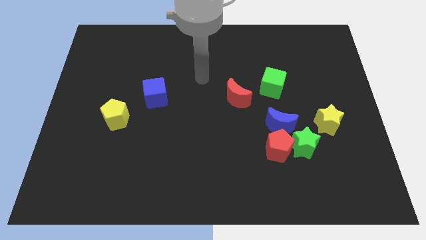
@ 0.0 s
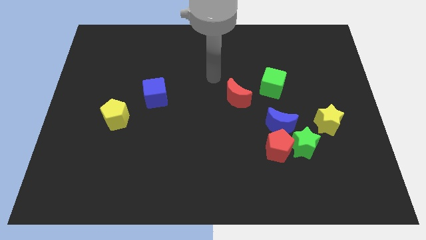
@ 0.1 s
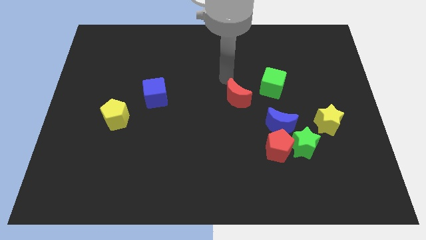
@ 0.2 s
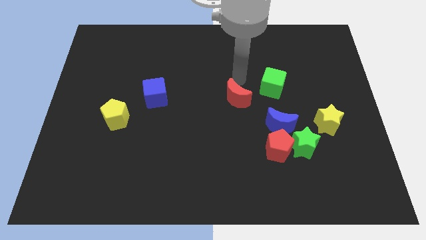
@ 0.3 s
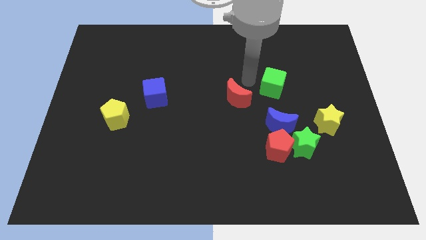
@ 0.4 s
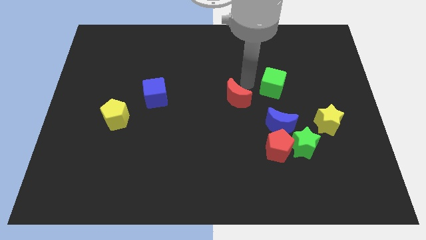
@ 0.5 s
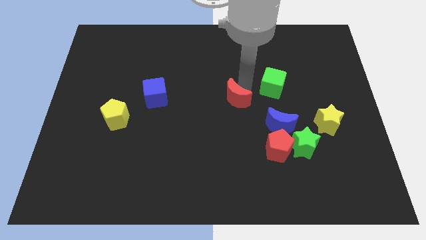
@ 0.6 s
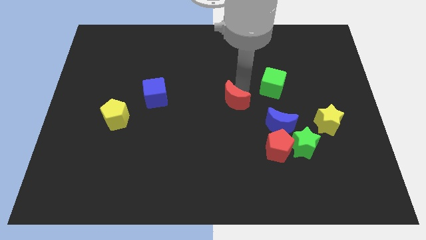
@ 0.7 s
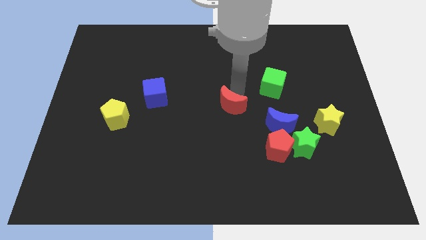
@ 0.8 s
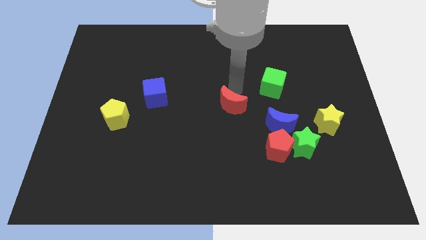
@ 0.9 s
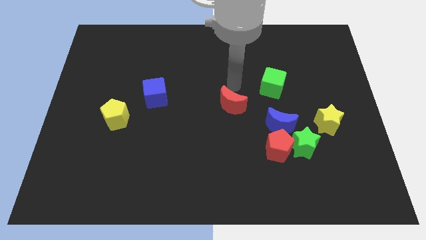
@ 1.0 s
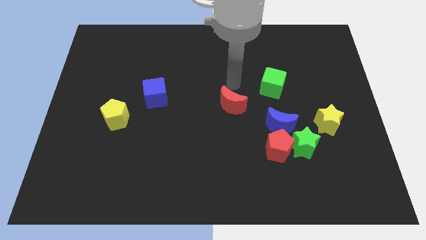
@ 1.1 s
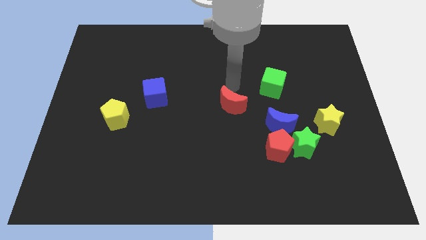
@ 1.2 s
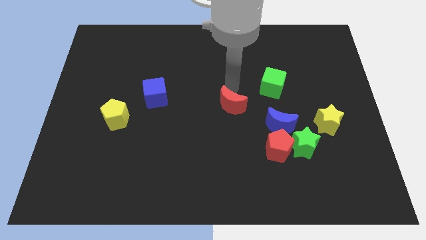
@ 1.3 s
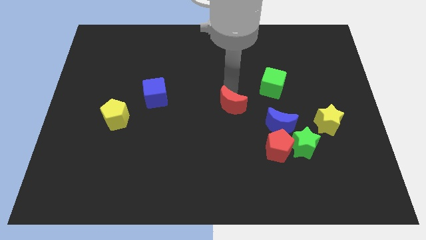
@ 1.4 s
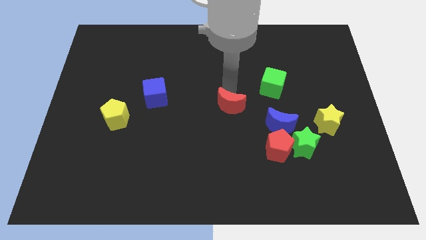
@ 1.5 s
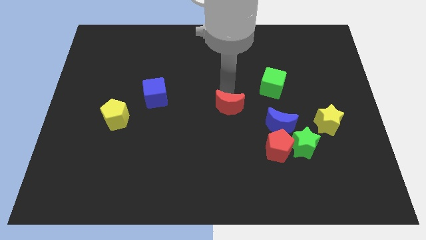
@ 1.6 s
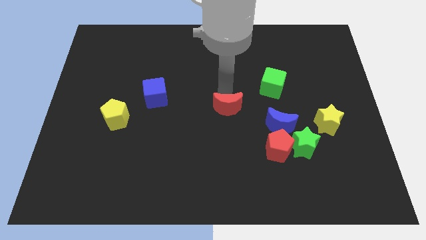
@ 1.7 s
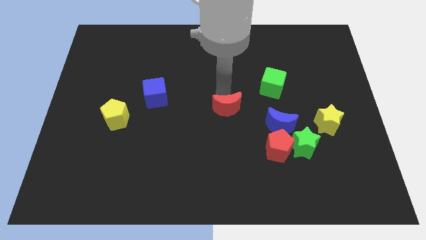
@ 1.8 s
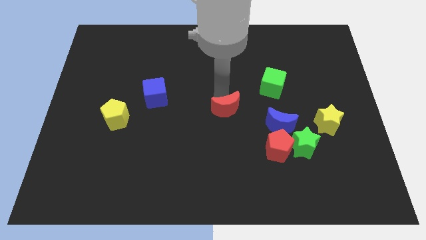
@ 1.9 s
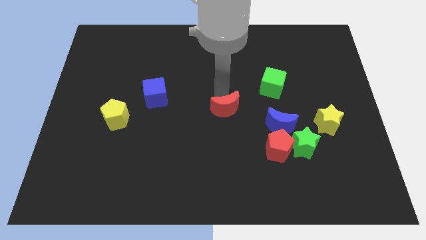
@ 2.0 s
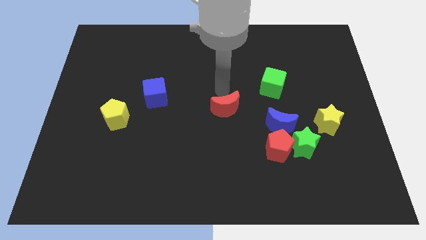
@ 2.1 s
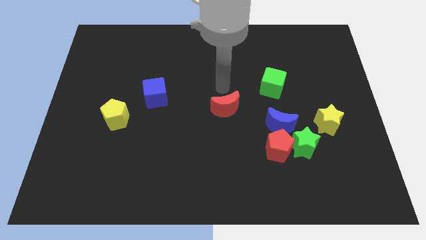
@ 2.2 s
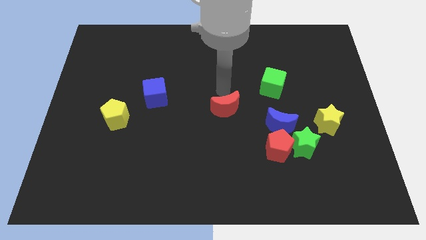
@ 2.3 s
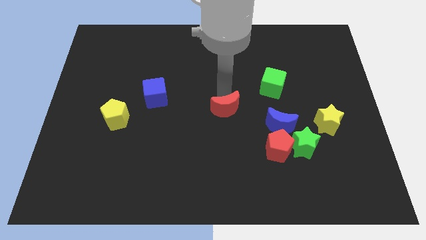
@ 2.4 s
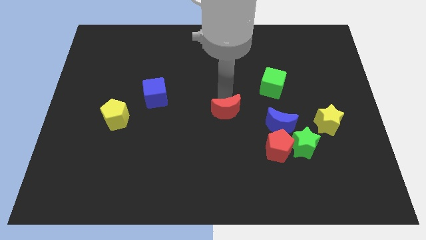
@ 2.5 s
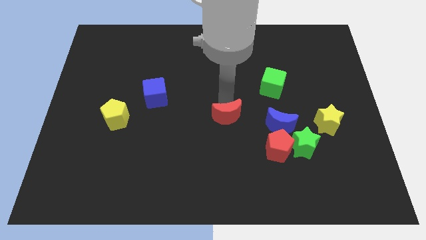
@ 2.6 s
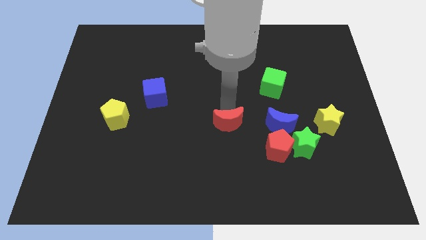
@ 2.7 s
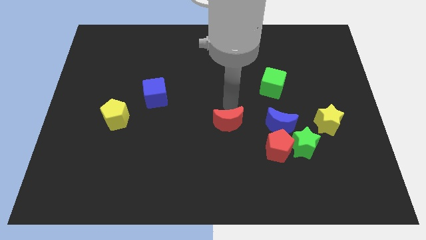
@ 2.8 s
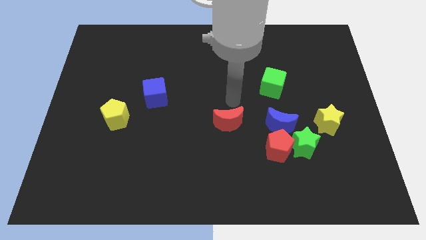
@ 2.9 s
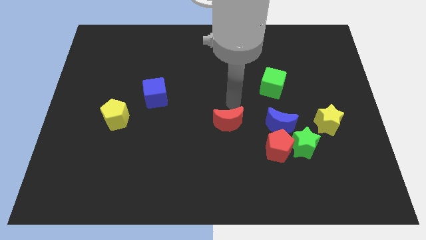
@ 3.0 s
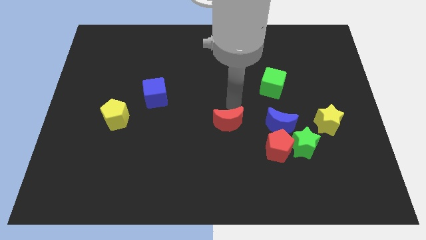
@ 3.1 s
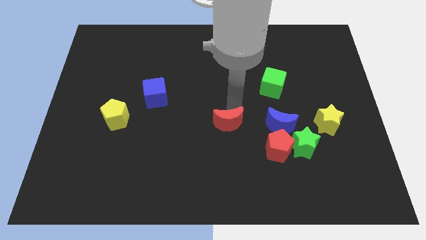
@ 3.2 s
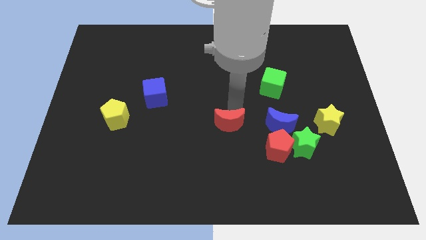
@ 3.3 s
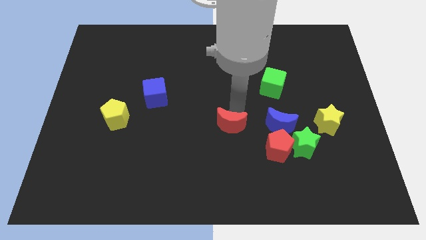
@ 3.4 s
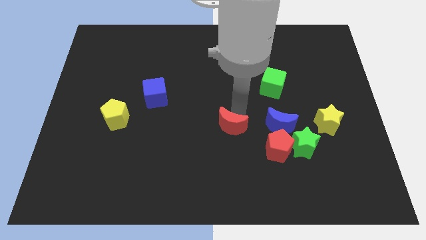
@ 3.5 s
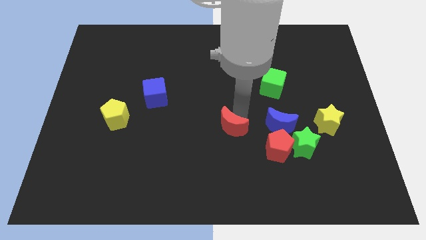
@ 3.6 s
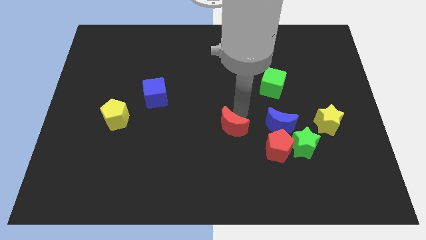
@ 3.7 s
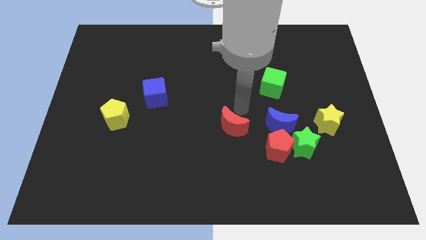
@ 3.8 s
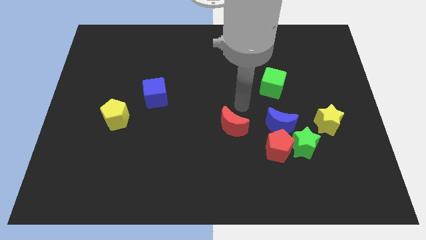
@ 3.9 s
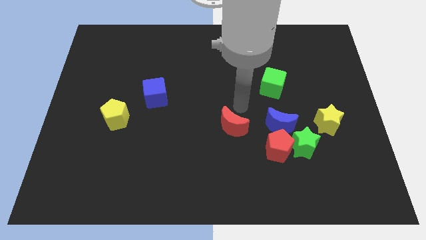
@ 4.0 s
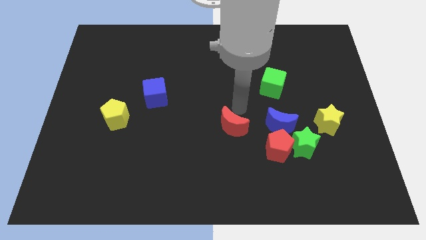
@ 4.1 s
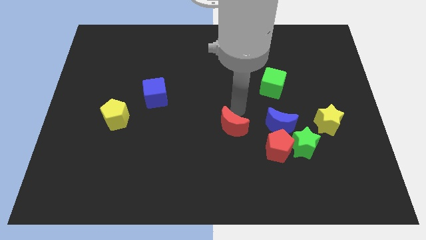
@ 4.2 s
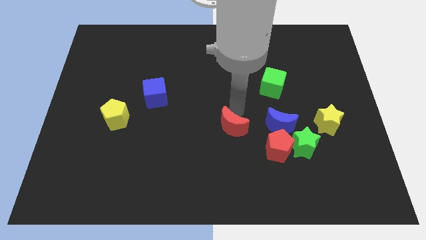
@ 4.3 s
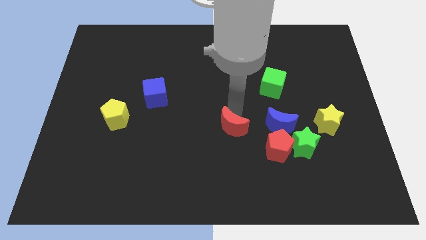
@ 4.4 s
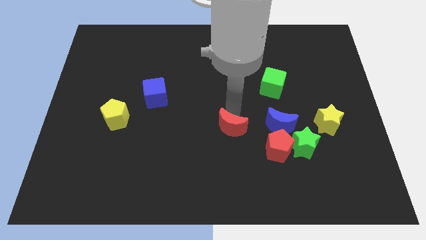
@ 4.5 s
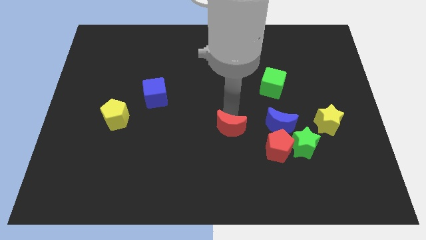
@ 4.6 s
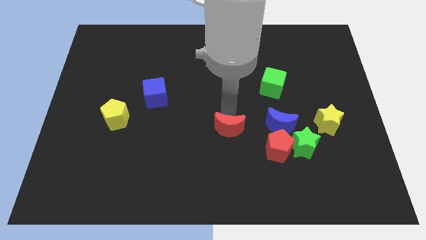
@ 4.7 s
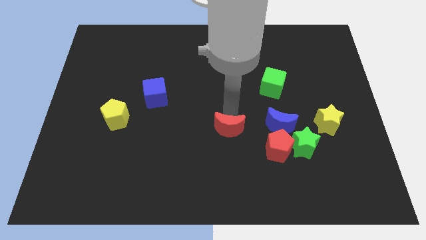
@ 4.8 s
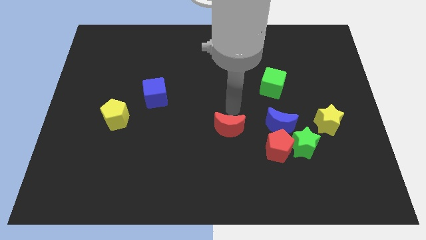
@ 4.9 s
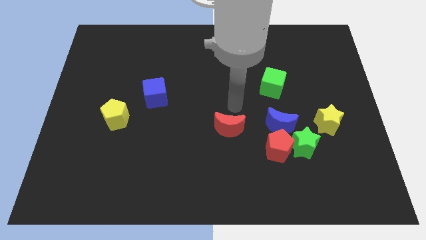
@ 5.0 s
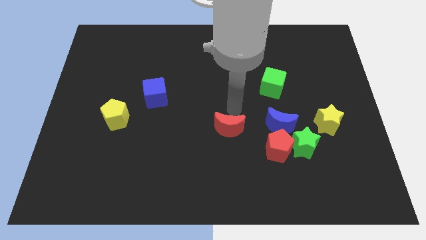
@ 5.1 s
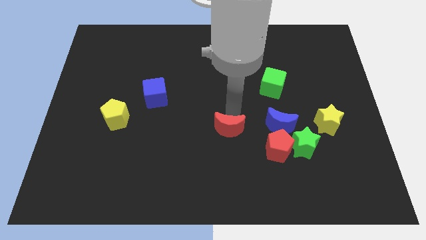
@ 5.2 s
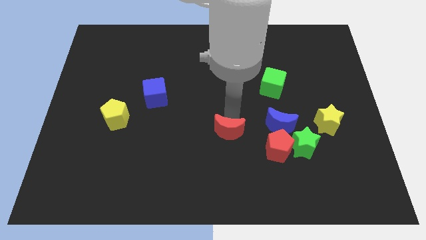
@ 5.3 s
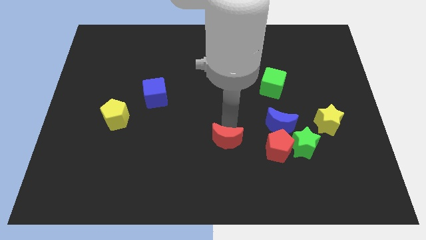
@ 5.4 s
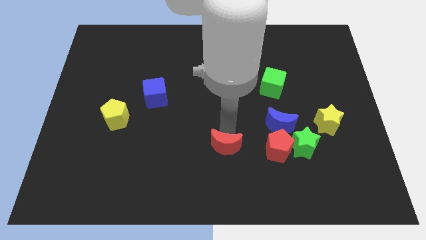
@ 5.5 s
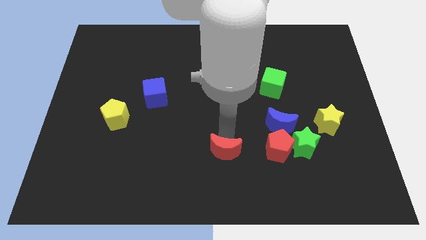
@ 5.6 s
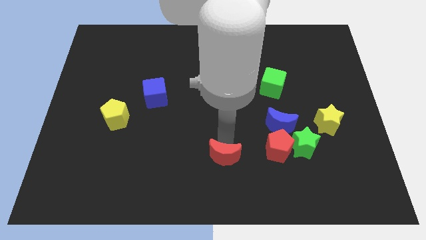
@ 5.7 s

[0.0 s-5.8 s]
put the red moon to the bottom side

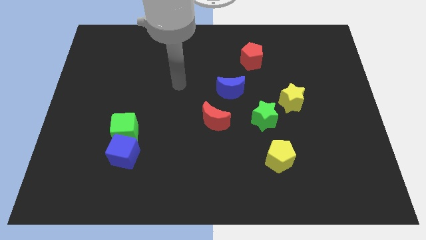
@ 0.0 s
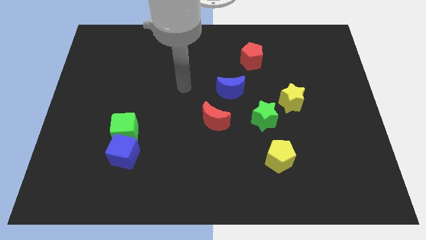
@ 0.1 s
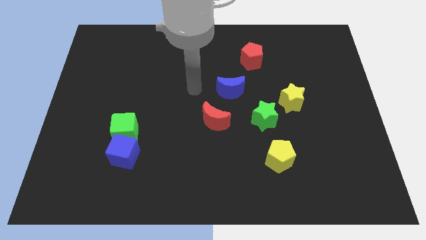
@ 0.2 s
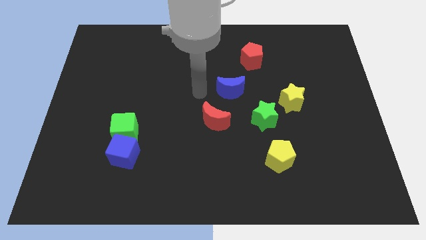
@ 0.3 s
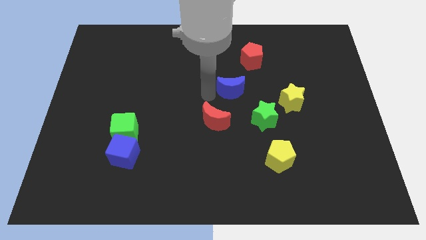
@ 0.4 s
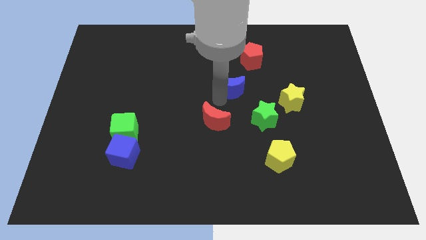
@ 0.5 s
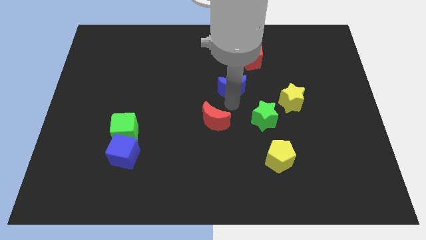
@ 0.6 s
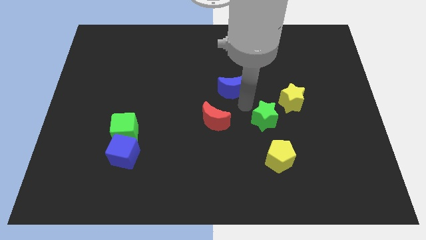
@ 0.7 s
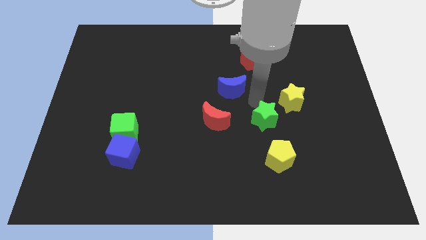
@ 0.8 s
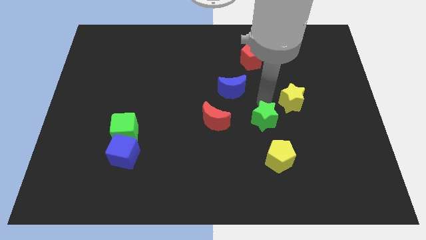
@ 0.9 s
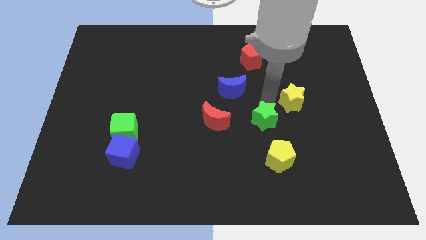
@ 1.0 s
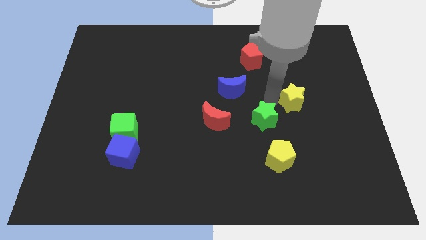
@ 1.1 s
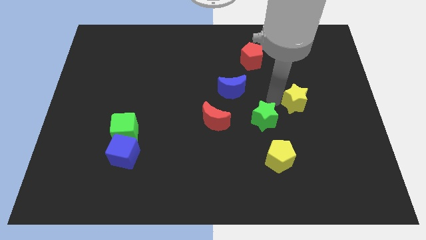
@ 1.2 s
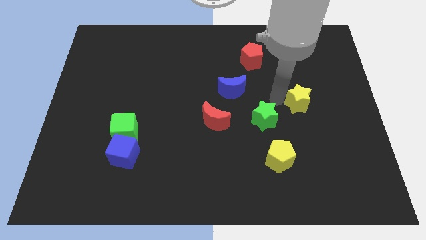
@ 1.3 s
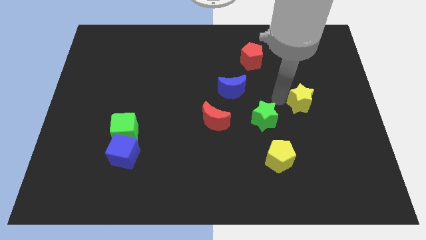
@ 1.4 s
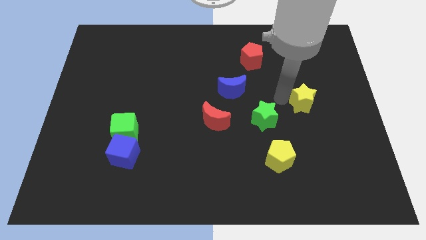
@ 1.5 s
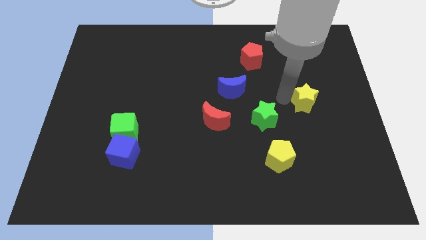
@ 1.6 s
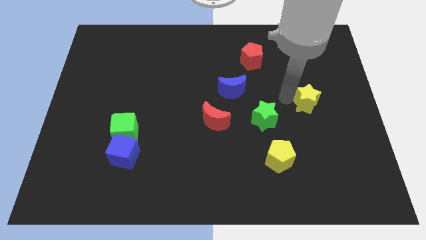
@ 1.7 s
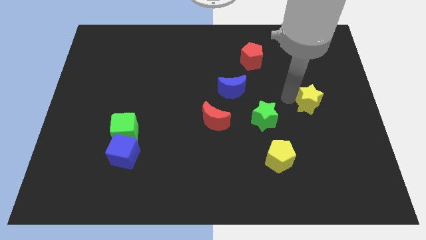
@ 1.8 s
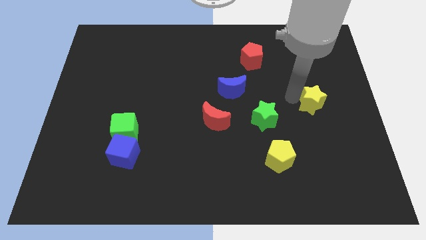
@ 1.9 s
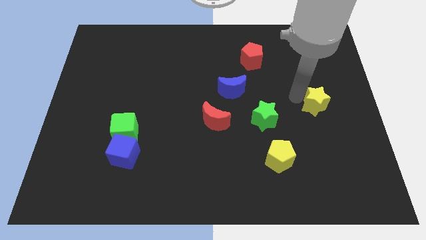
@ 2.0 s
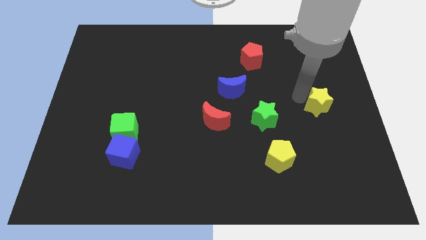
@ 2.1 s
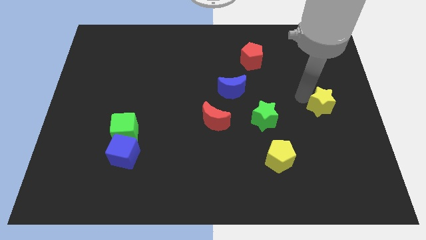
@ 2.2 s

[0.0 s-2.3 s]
slide the yellow star to the right side
